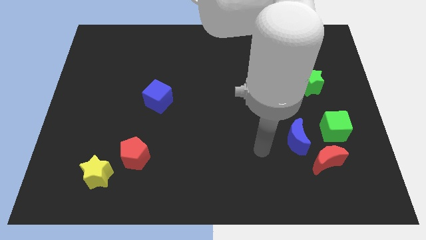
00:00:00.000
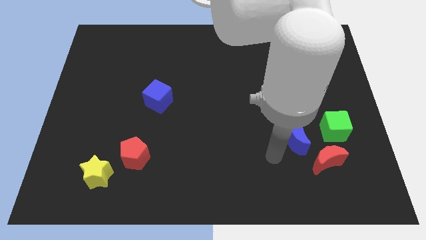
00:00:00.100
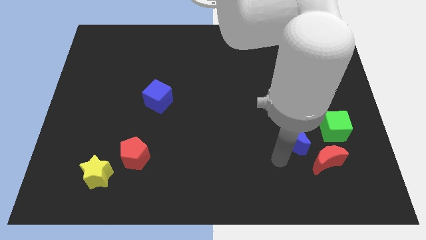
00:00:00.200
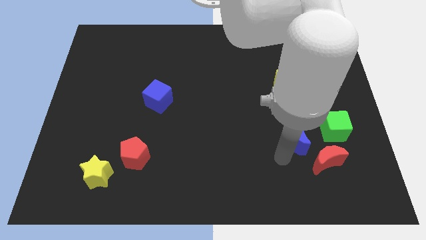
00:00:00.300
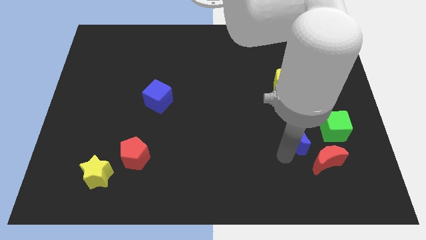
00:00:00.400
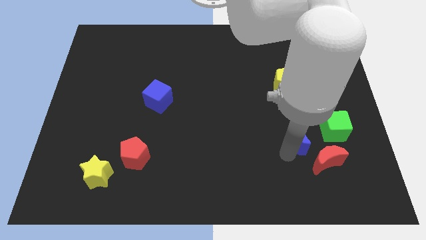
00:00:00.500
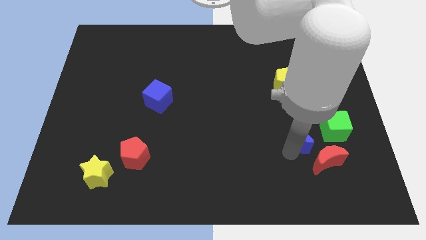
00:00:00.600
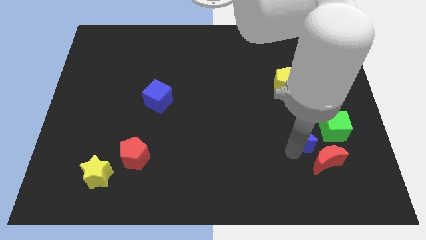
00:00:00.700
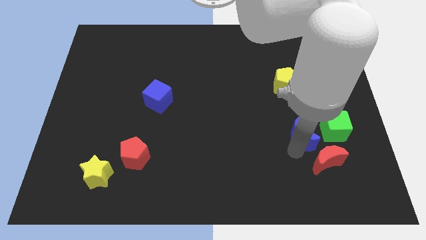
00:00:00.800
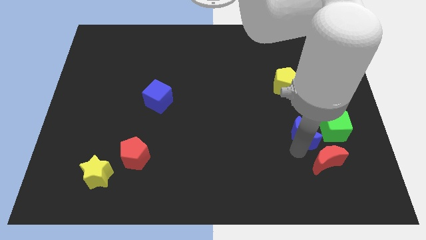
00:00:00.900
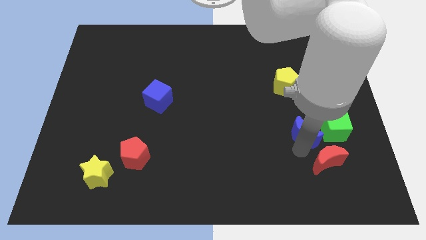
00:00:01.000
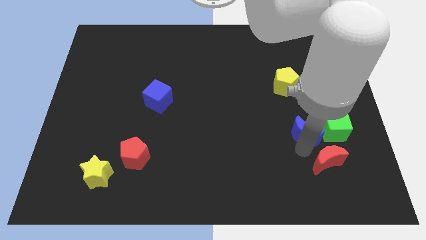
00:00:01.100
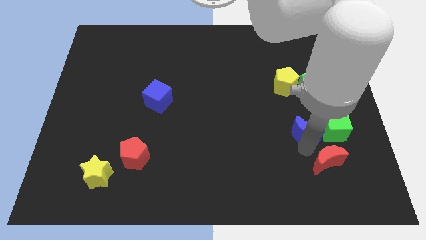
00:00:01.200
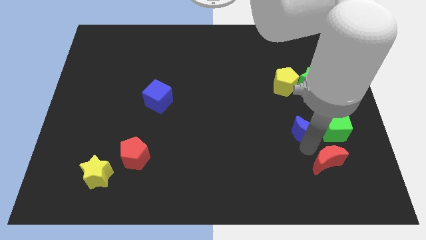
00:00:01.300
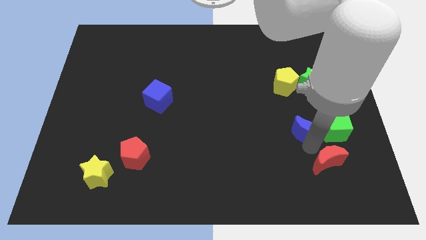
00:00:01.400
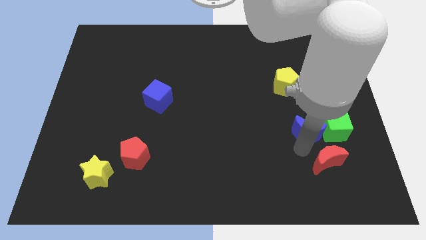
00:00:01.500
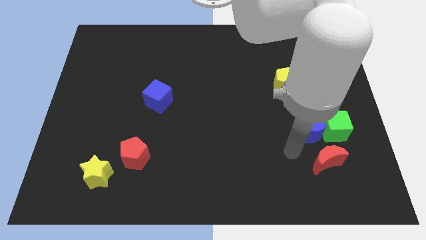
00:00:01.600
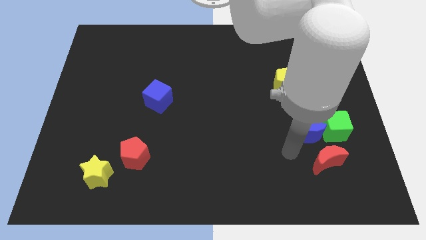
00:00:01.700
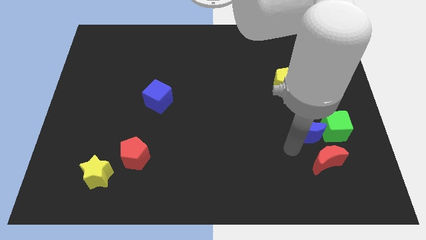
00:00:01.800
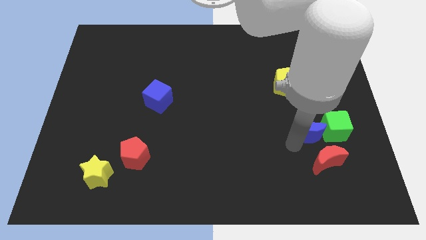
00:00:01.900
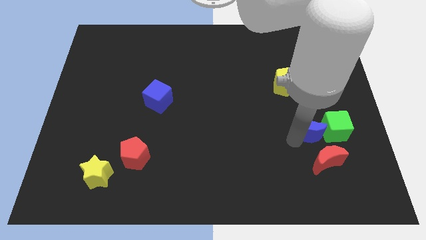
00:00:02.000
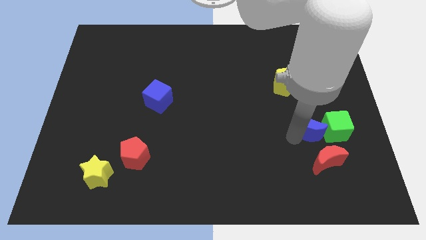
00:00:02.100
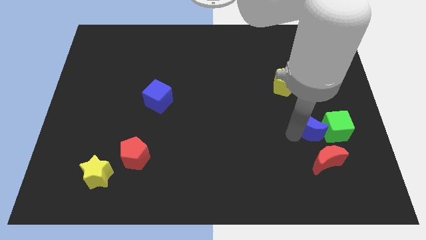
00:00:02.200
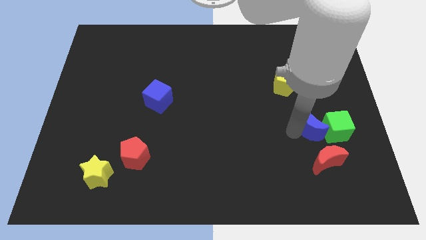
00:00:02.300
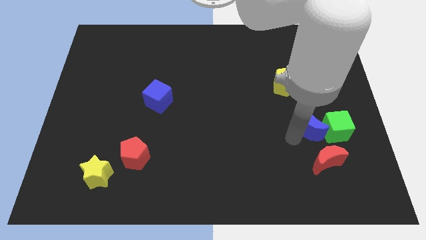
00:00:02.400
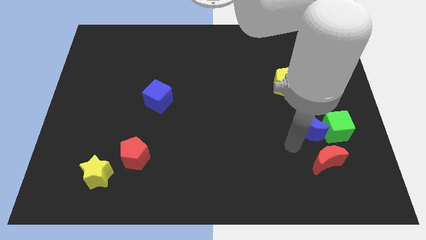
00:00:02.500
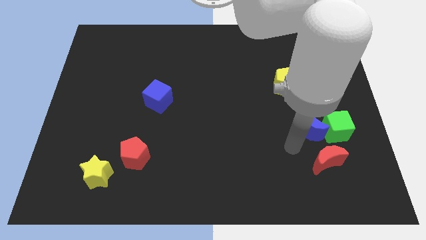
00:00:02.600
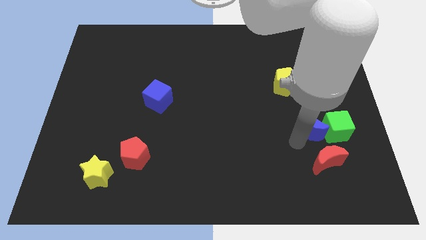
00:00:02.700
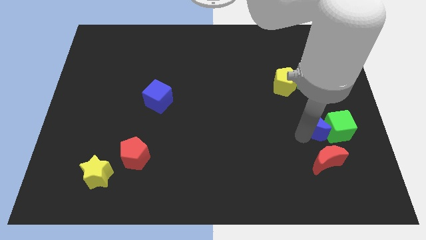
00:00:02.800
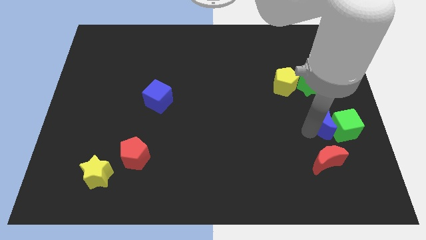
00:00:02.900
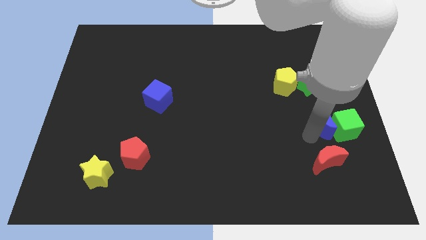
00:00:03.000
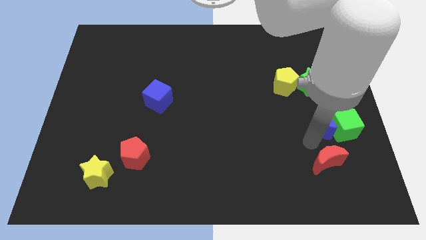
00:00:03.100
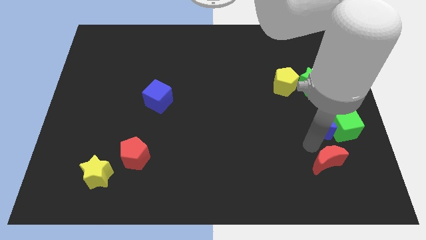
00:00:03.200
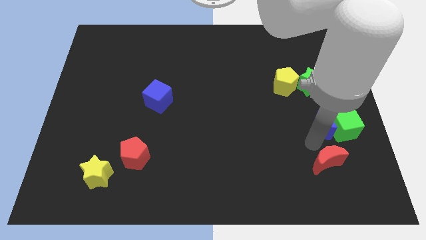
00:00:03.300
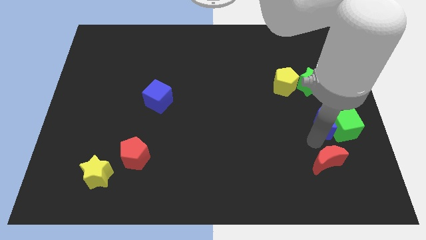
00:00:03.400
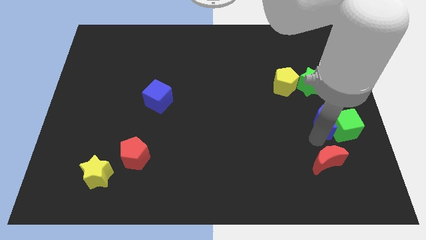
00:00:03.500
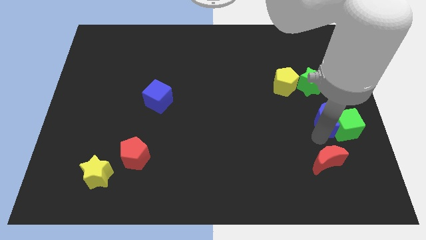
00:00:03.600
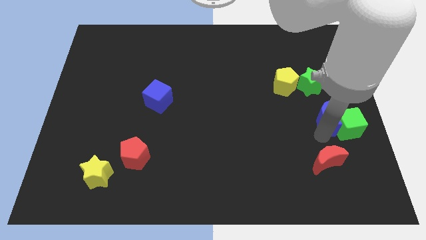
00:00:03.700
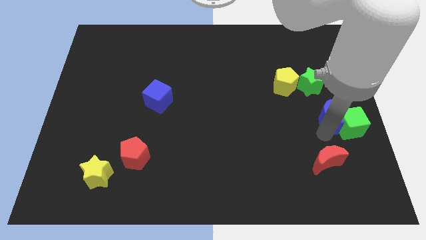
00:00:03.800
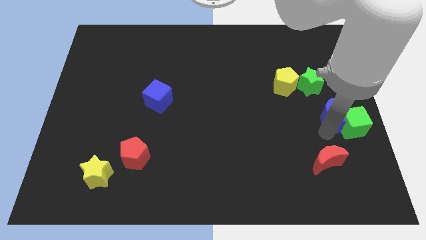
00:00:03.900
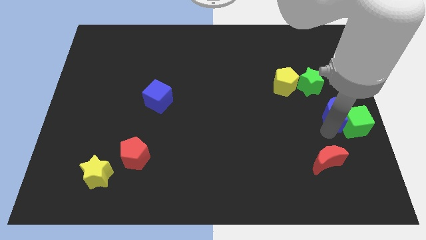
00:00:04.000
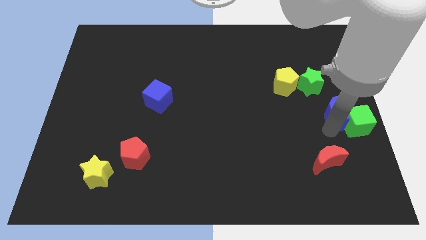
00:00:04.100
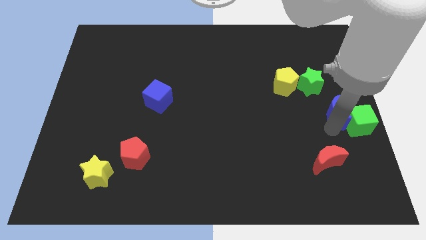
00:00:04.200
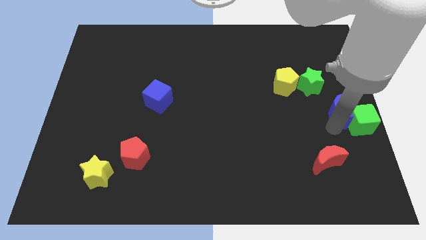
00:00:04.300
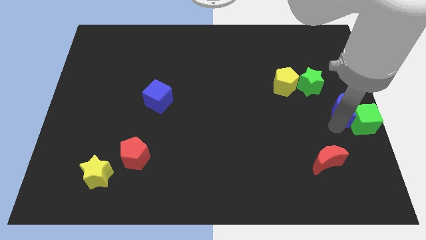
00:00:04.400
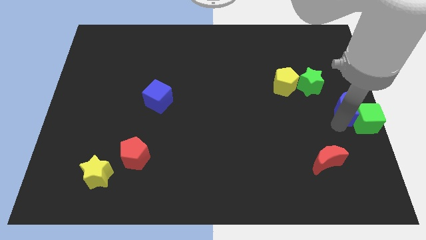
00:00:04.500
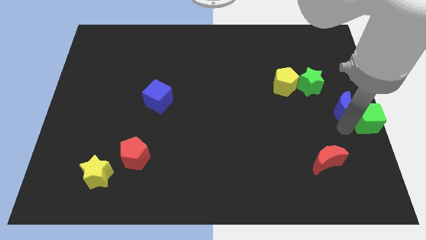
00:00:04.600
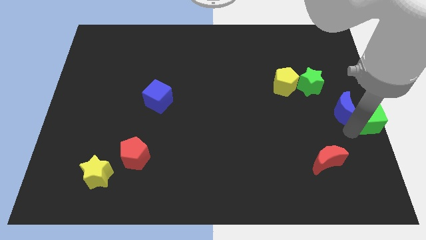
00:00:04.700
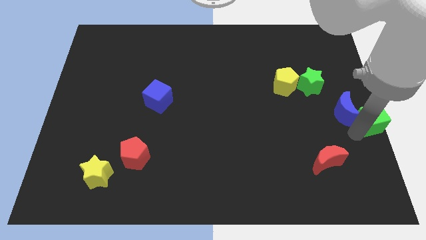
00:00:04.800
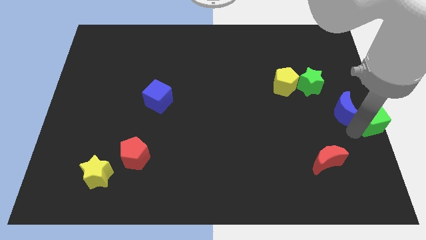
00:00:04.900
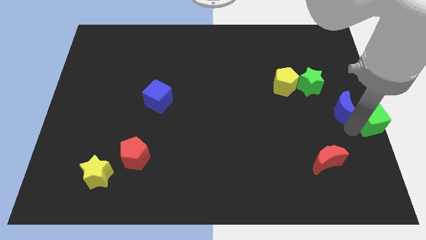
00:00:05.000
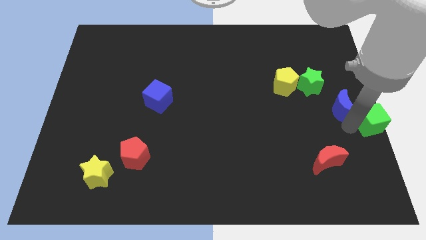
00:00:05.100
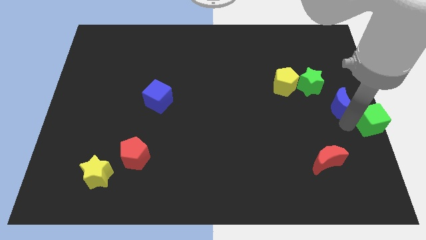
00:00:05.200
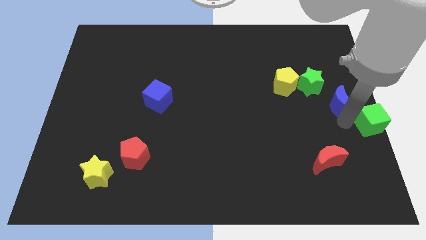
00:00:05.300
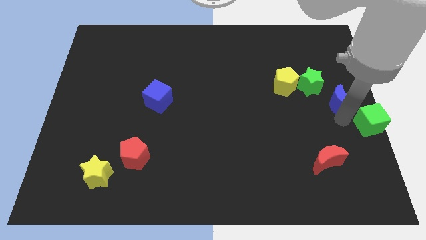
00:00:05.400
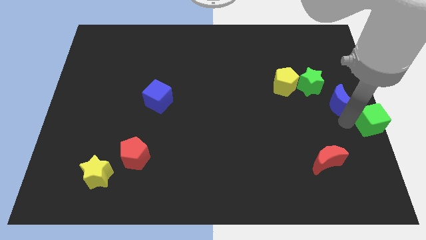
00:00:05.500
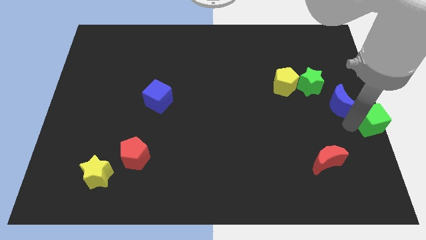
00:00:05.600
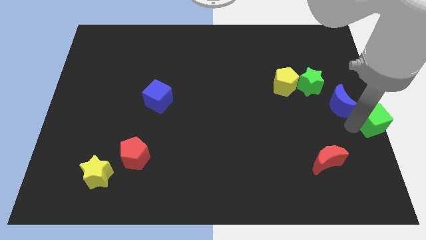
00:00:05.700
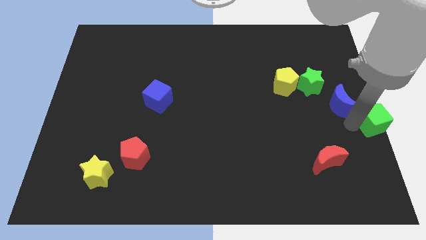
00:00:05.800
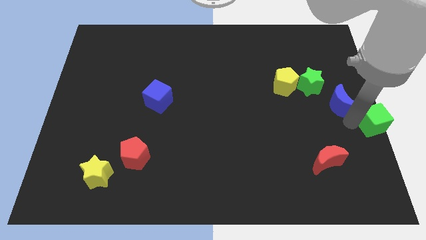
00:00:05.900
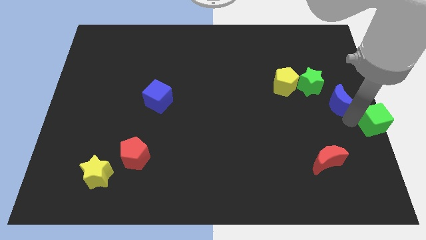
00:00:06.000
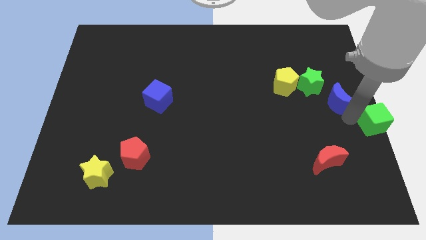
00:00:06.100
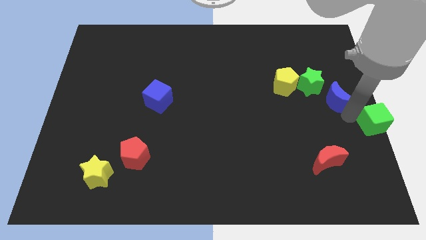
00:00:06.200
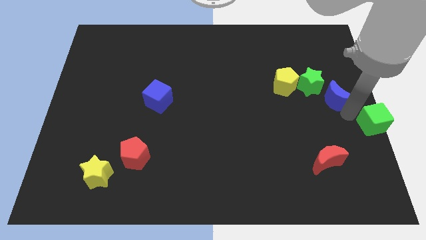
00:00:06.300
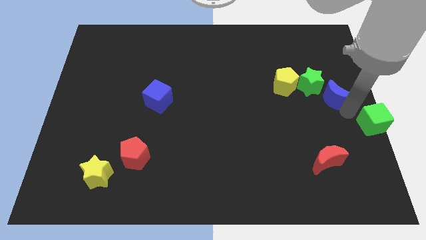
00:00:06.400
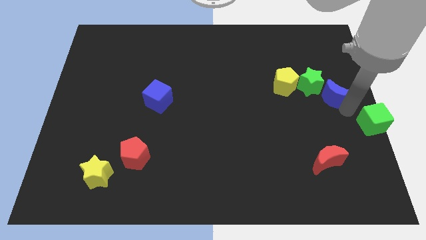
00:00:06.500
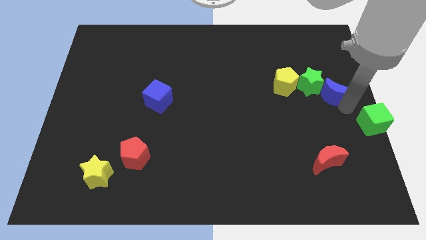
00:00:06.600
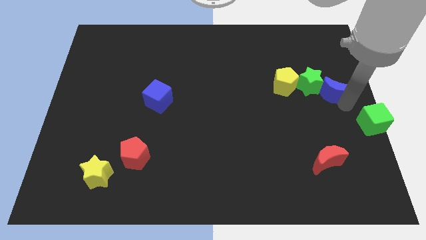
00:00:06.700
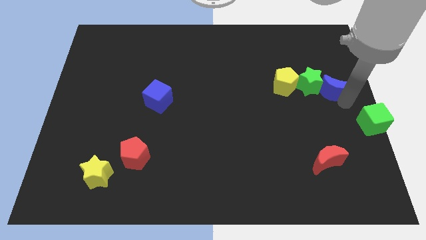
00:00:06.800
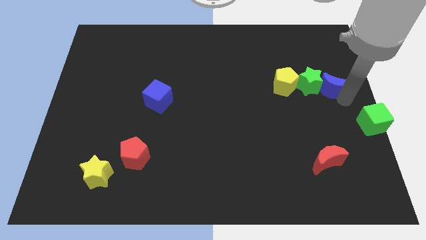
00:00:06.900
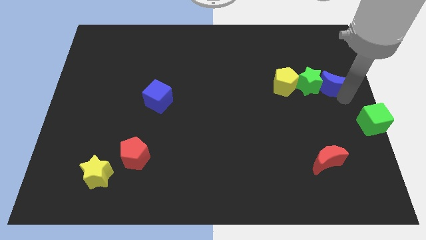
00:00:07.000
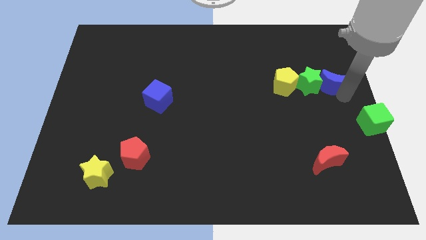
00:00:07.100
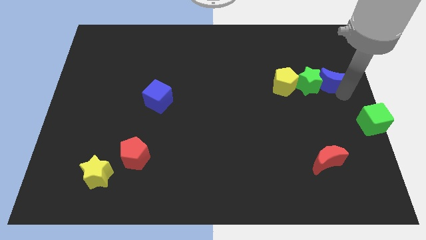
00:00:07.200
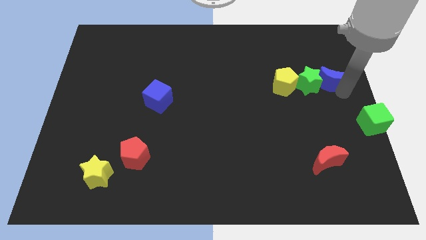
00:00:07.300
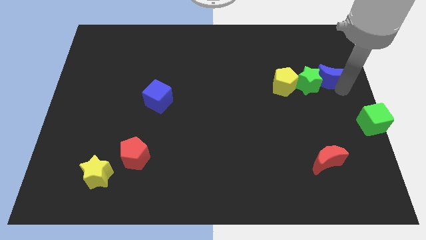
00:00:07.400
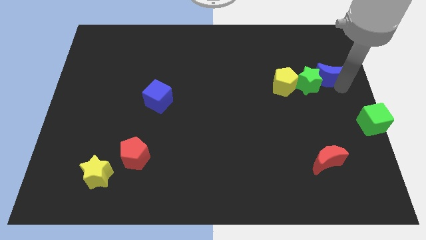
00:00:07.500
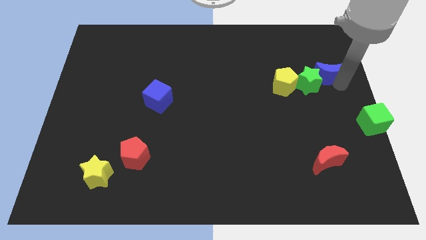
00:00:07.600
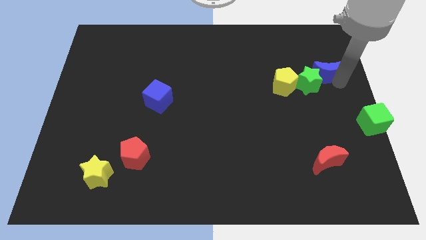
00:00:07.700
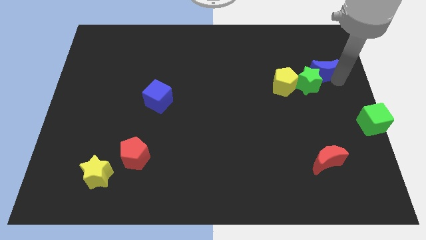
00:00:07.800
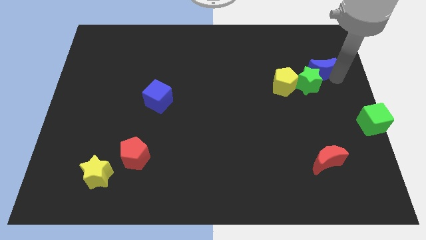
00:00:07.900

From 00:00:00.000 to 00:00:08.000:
push the blue moon to the top right side of the yellow pentagon

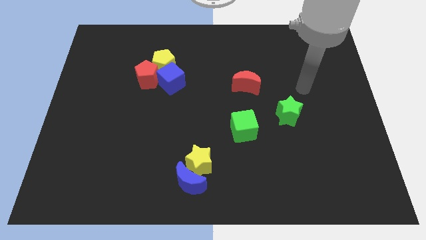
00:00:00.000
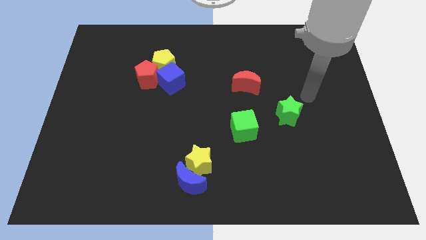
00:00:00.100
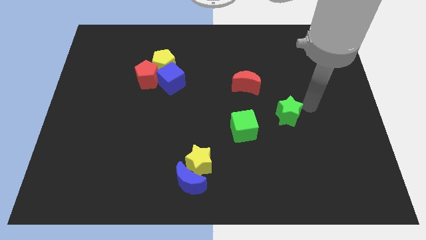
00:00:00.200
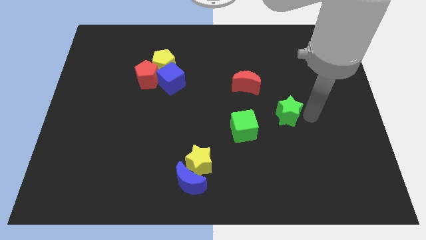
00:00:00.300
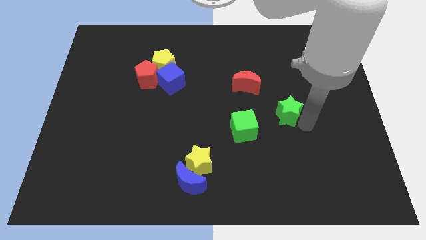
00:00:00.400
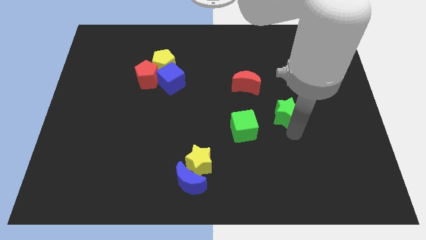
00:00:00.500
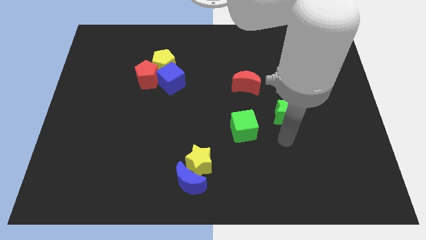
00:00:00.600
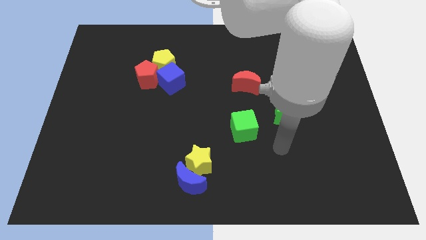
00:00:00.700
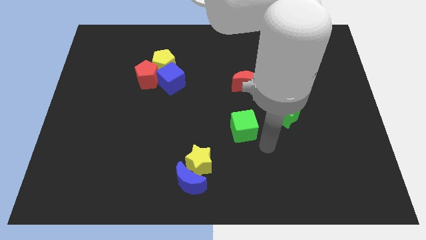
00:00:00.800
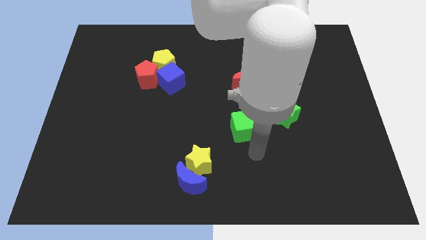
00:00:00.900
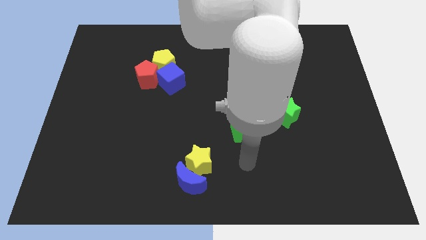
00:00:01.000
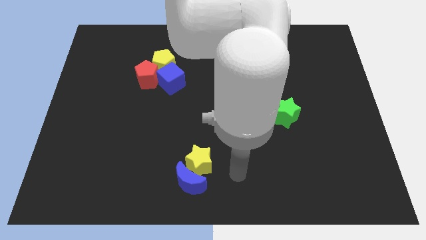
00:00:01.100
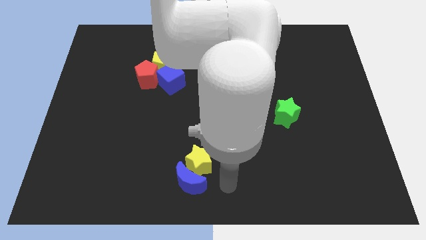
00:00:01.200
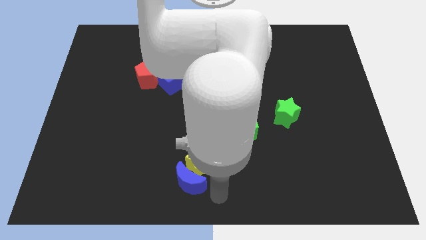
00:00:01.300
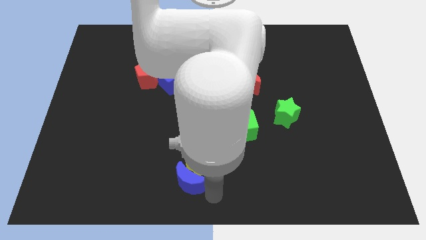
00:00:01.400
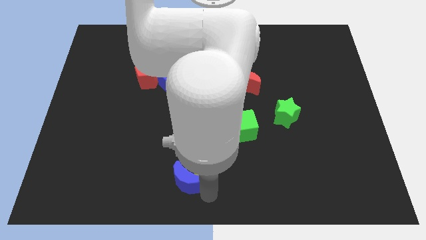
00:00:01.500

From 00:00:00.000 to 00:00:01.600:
slide the blue moon just left of the yellow star
